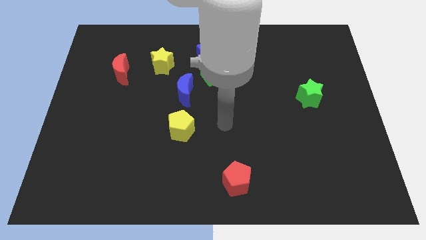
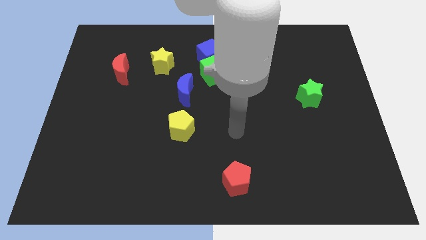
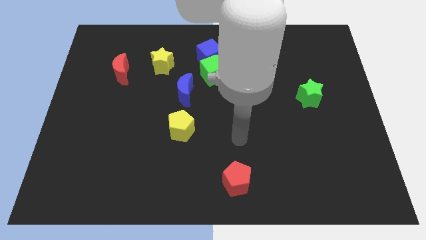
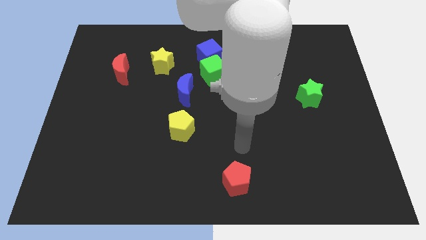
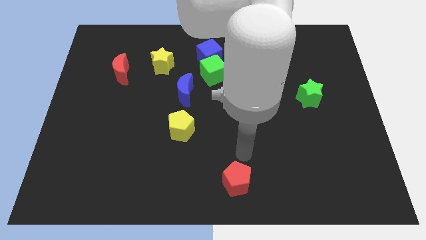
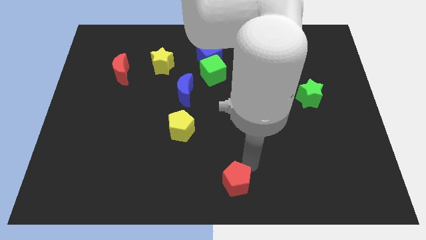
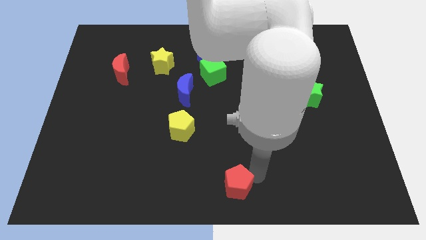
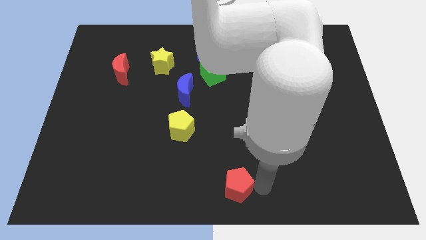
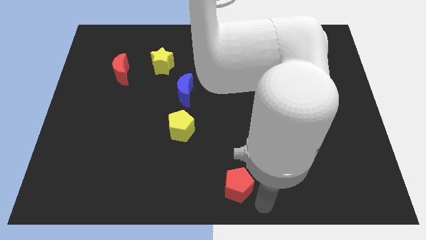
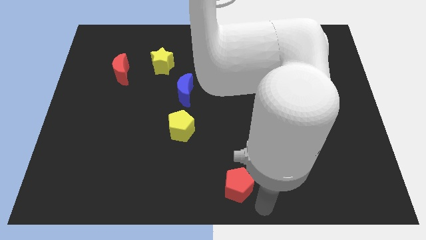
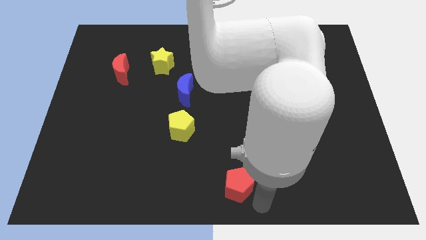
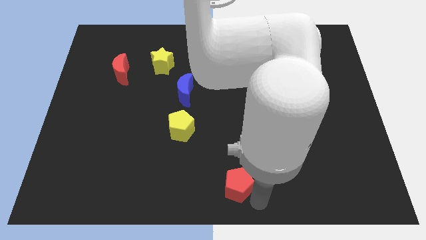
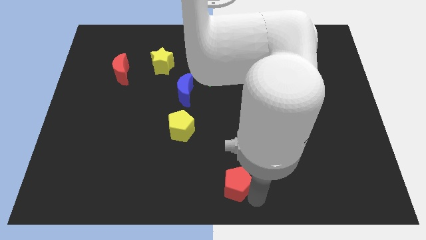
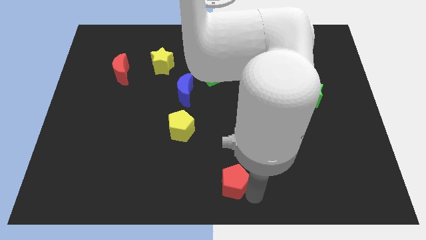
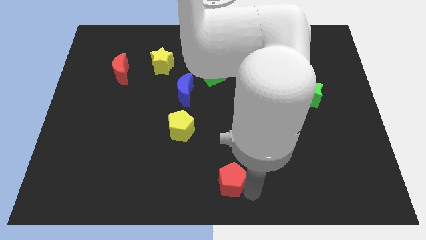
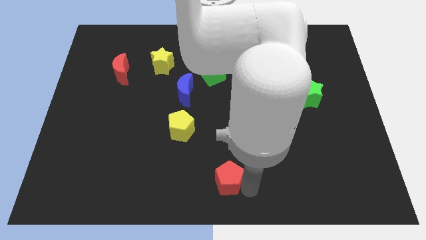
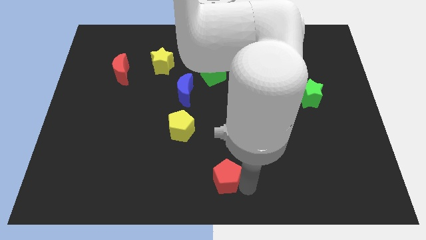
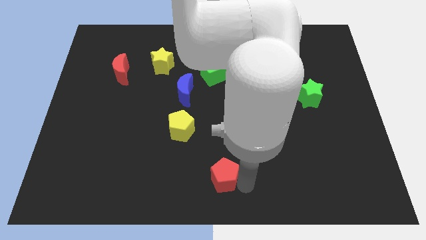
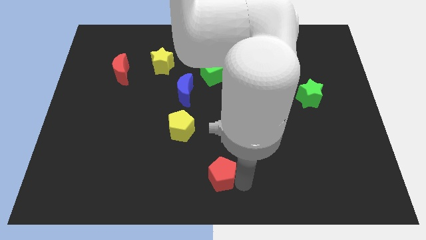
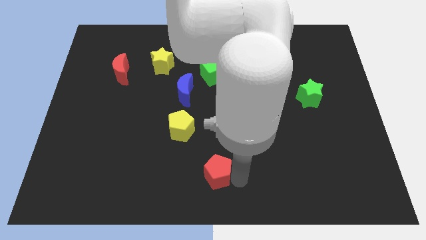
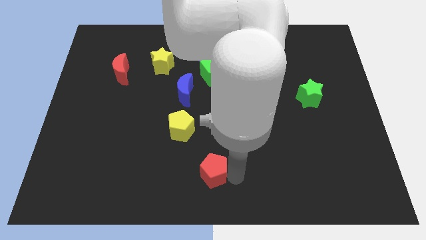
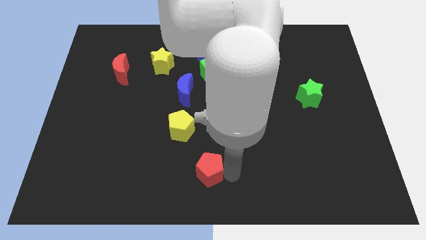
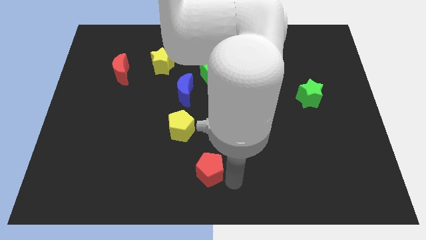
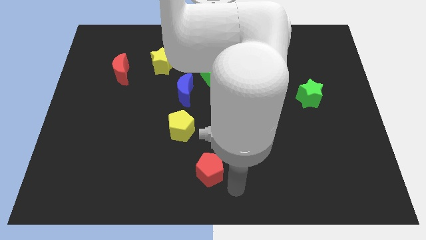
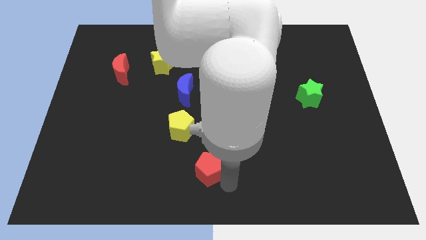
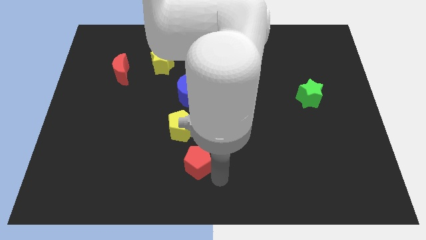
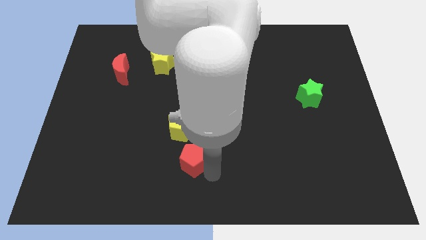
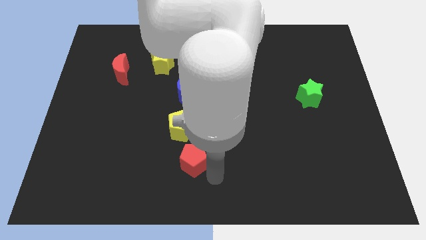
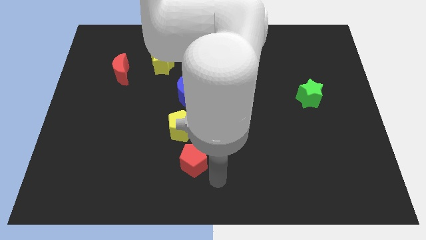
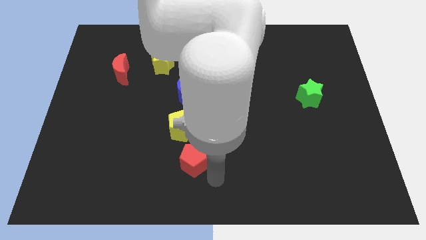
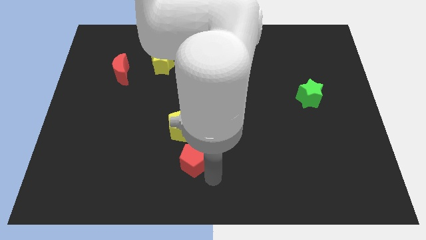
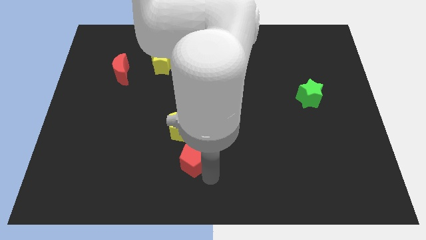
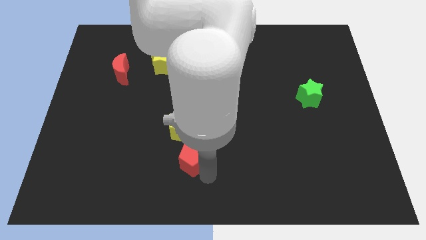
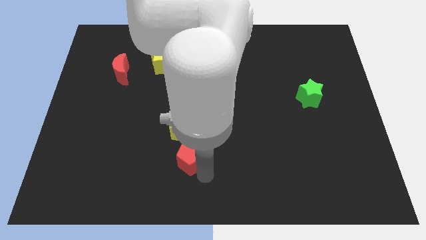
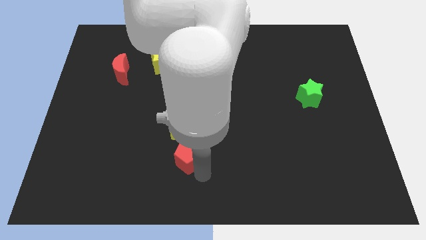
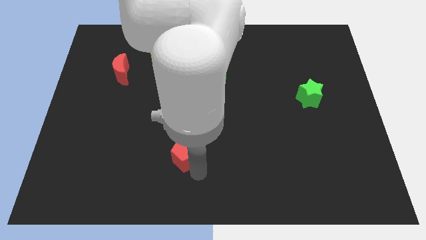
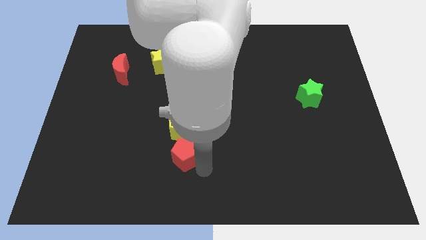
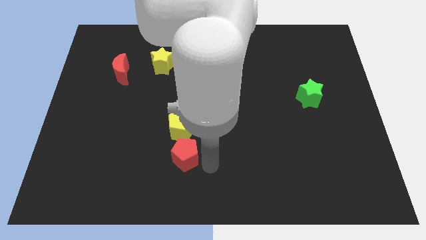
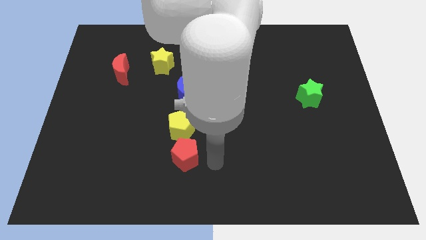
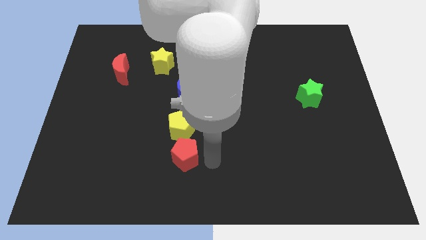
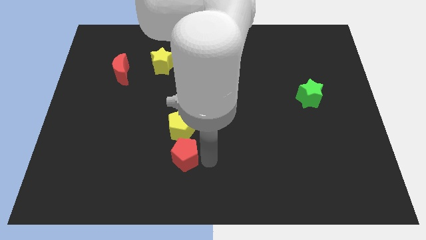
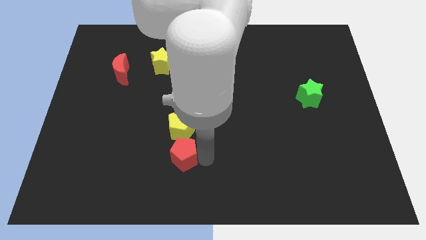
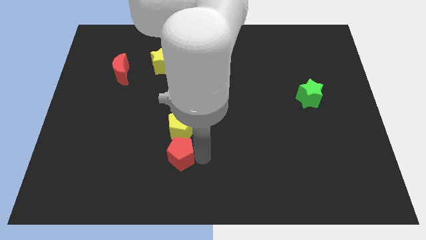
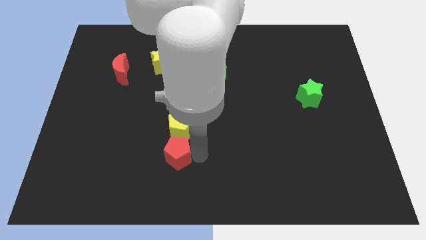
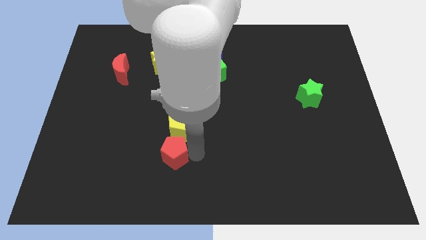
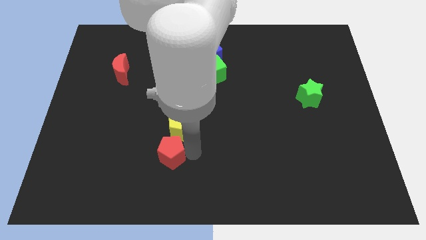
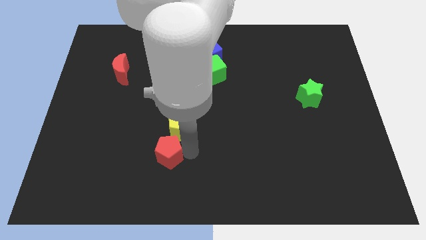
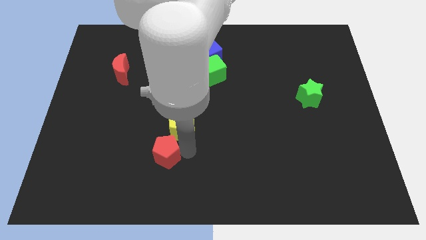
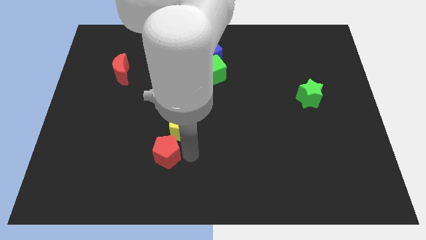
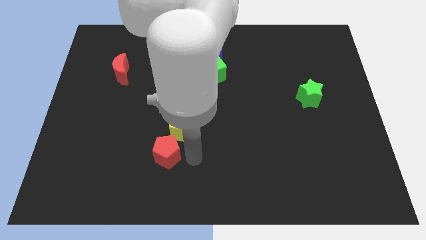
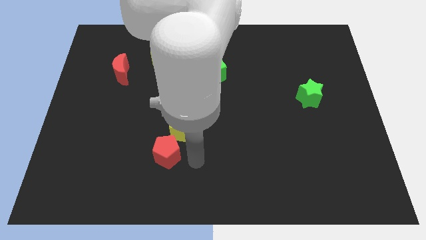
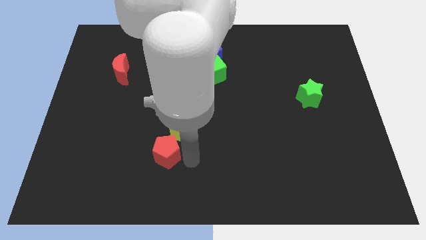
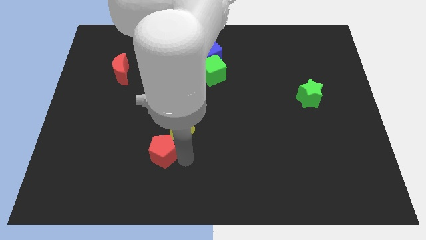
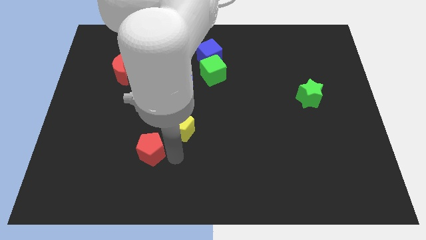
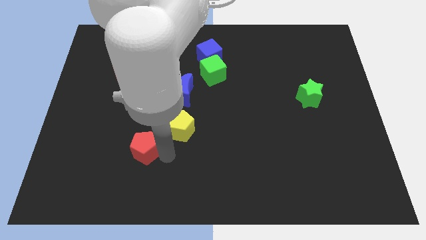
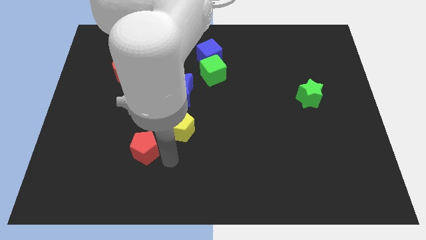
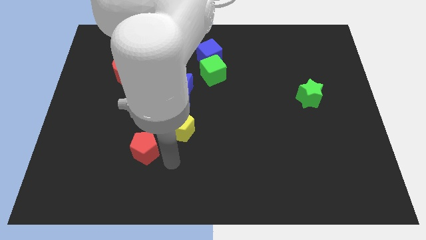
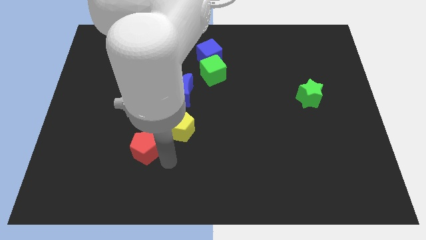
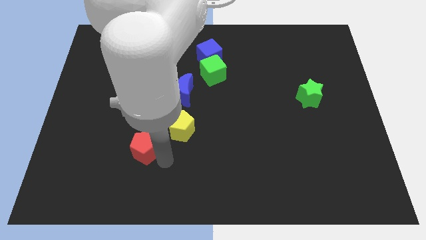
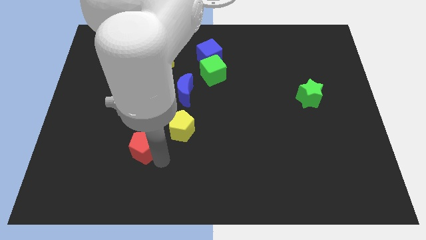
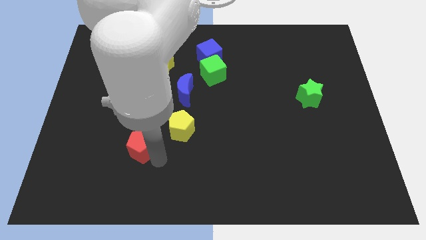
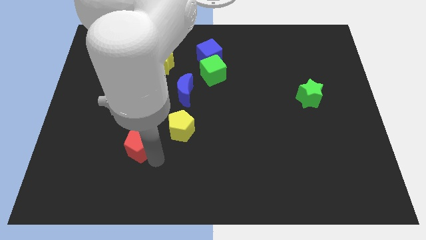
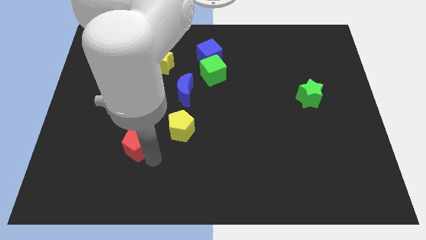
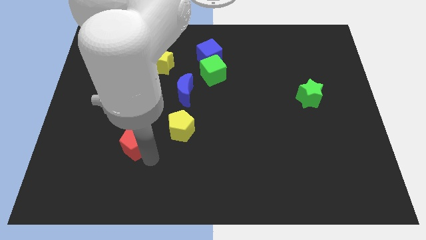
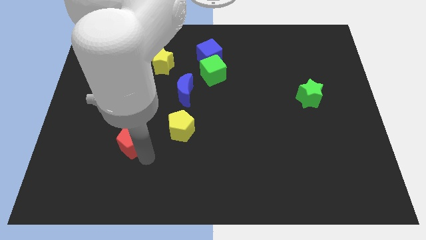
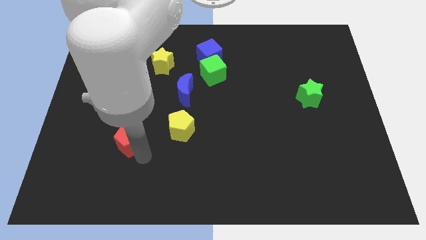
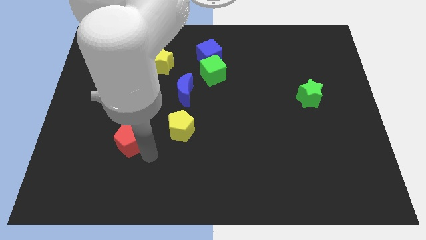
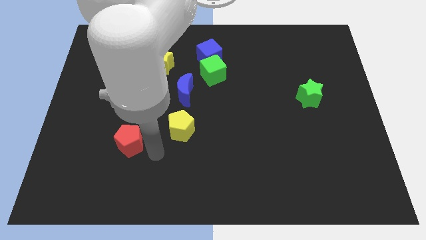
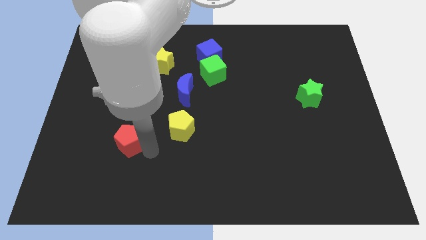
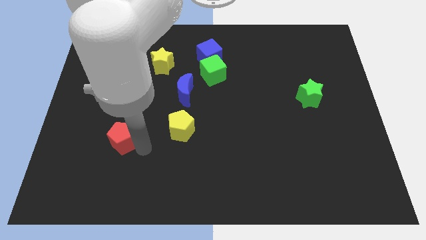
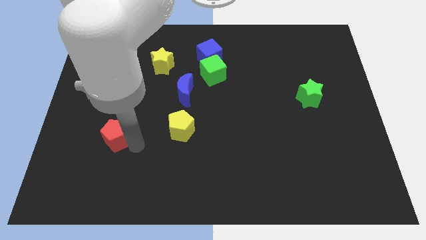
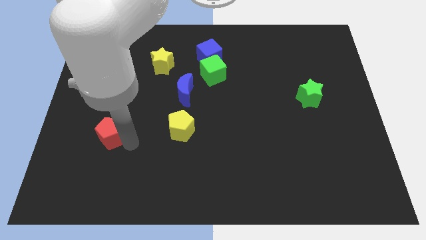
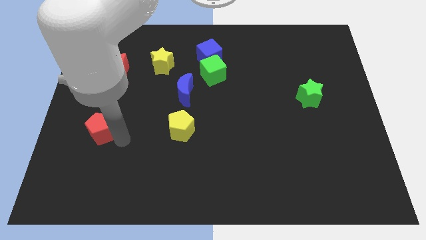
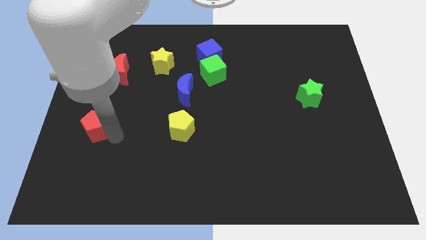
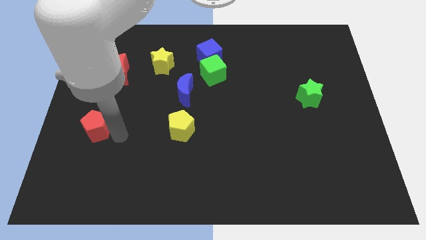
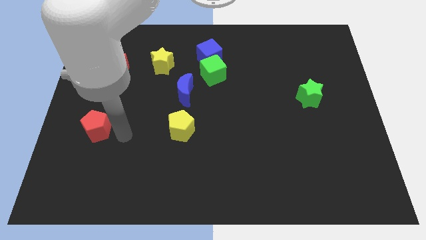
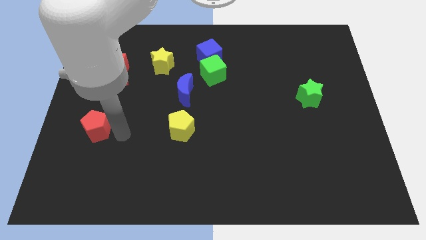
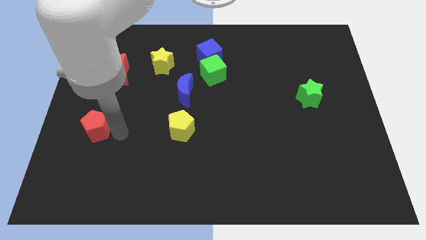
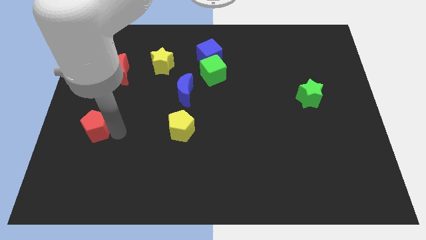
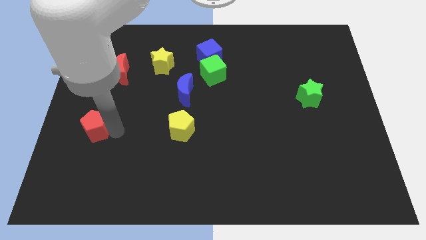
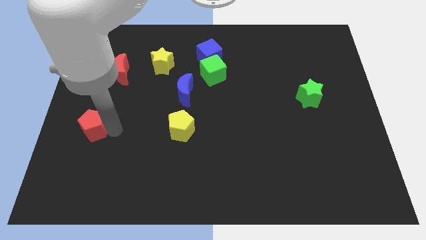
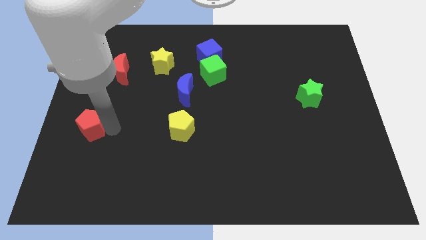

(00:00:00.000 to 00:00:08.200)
push the red pentagon to the center left
